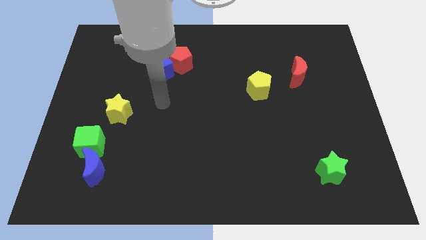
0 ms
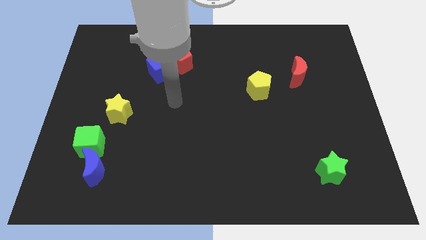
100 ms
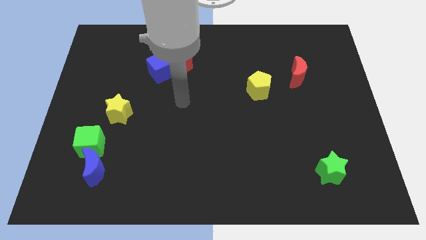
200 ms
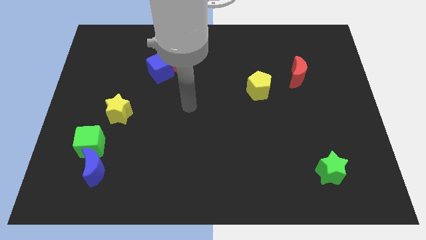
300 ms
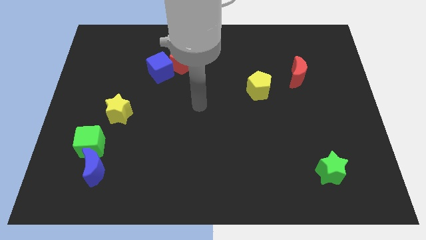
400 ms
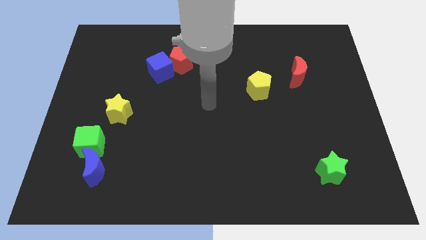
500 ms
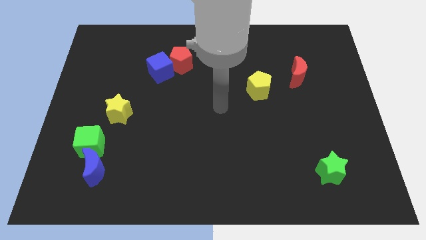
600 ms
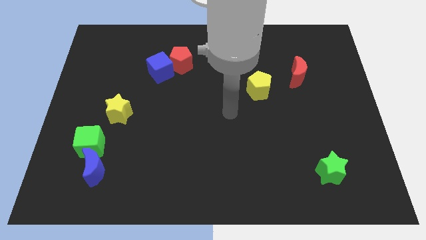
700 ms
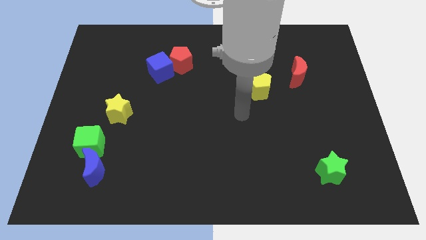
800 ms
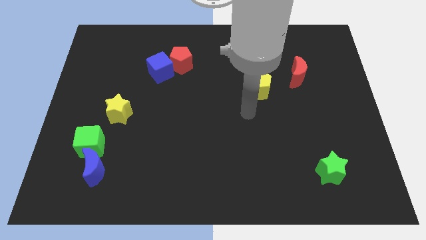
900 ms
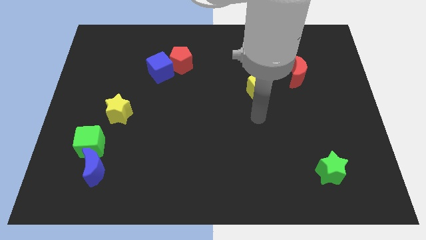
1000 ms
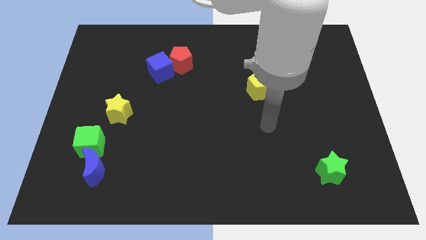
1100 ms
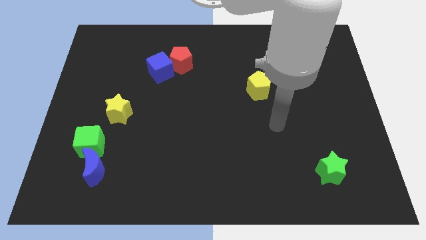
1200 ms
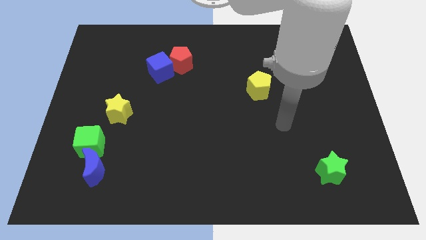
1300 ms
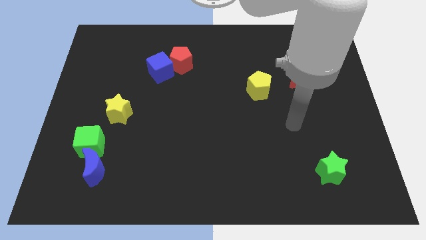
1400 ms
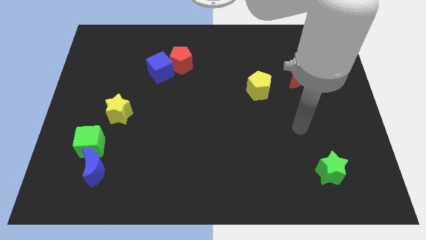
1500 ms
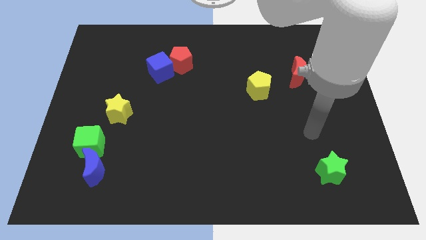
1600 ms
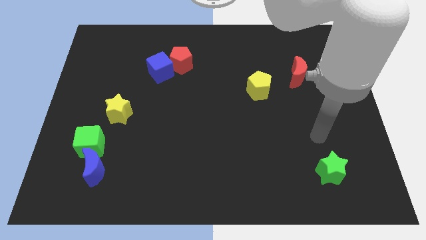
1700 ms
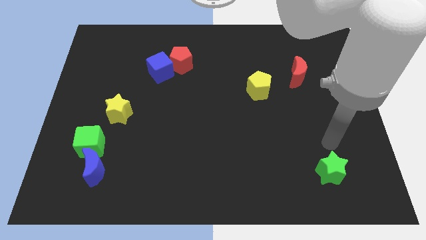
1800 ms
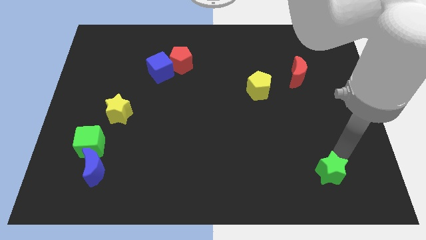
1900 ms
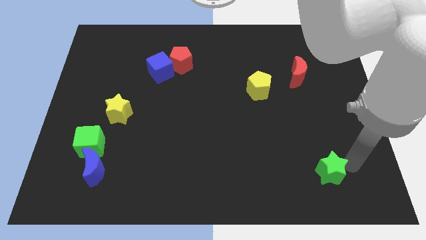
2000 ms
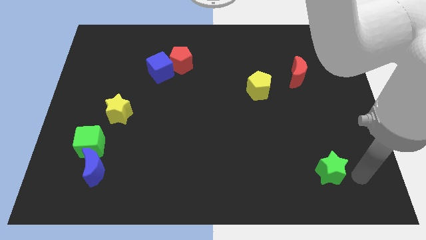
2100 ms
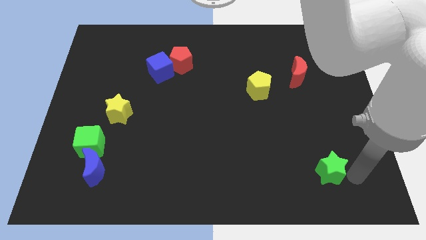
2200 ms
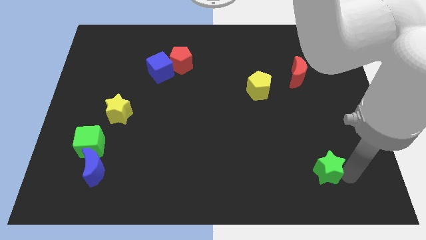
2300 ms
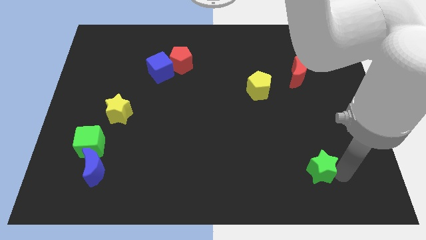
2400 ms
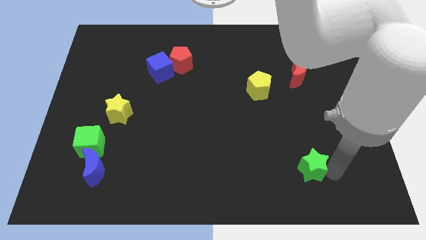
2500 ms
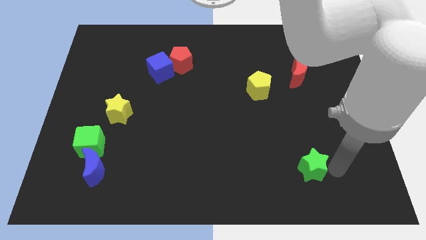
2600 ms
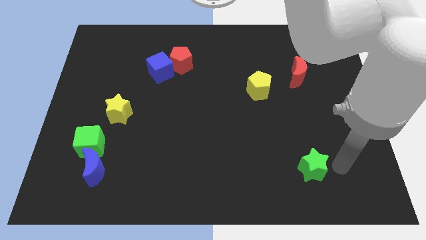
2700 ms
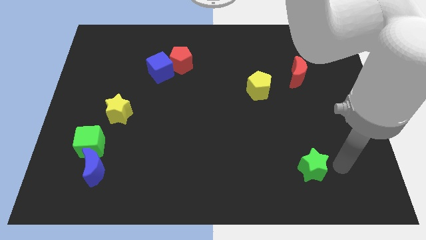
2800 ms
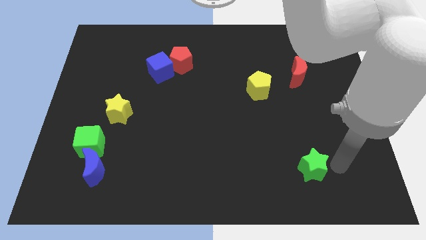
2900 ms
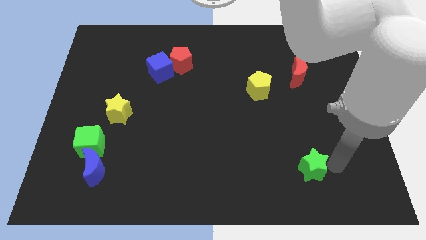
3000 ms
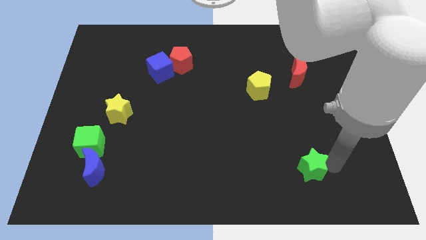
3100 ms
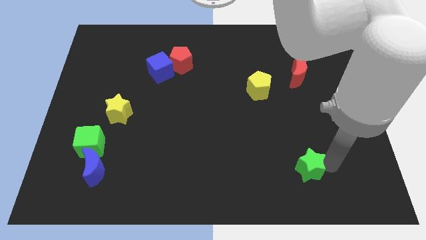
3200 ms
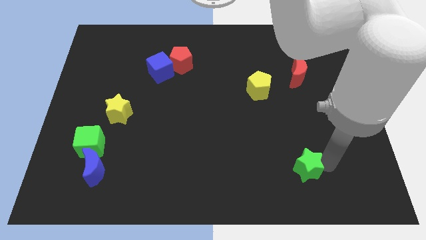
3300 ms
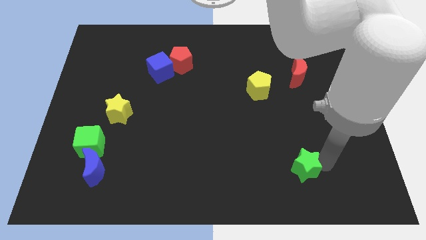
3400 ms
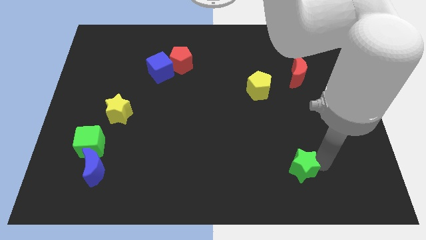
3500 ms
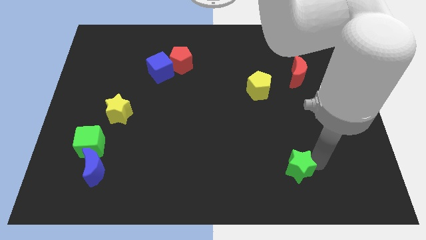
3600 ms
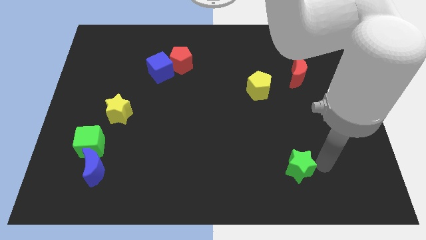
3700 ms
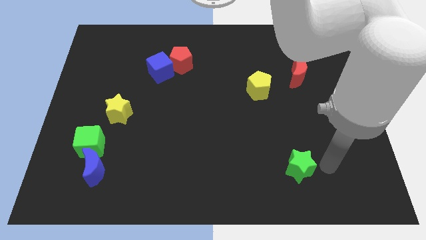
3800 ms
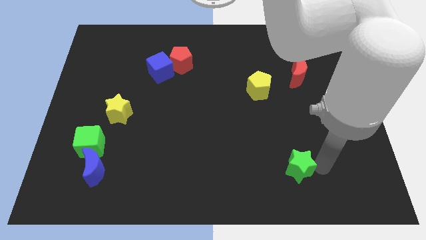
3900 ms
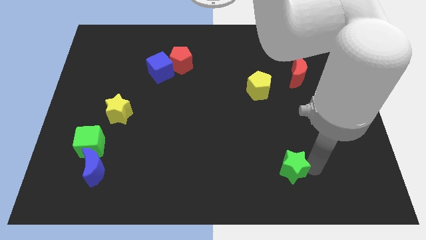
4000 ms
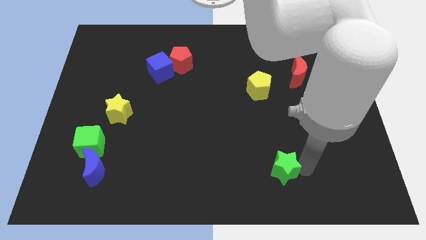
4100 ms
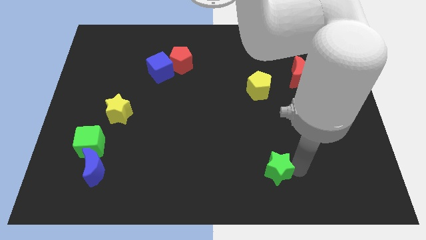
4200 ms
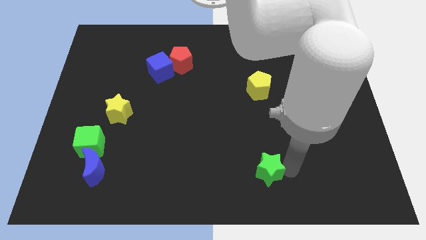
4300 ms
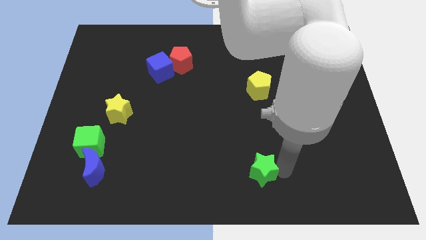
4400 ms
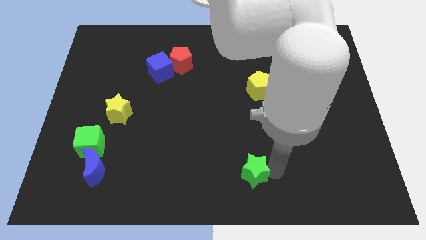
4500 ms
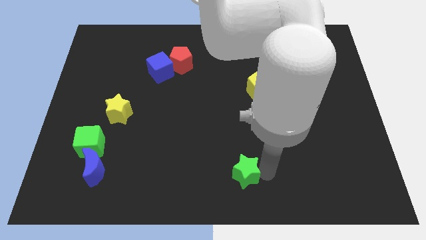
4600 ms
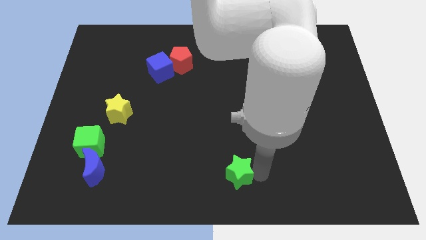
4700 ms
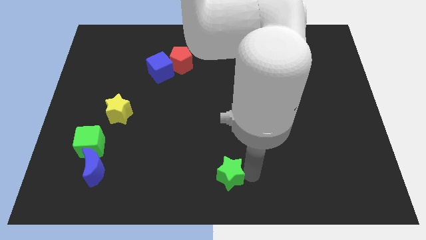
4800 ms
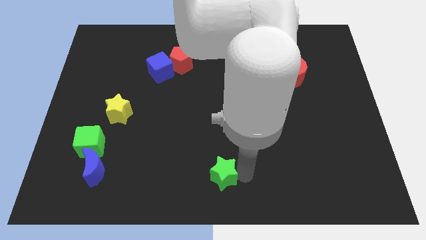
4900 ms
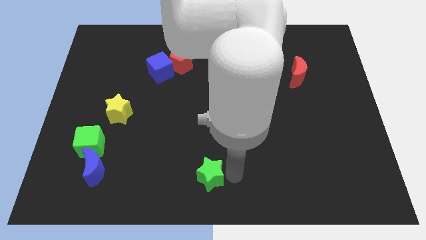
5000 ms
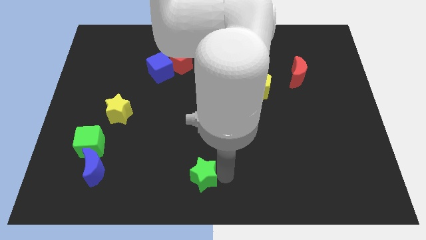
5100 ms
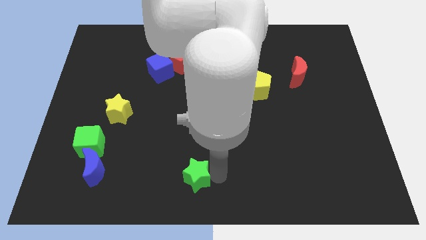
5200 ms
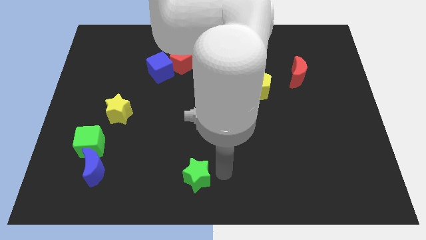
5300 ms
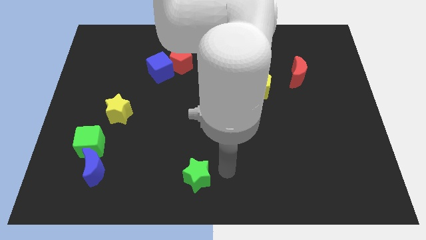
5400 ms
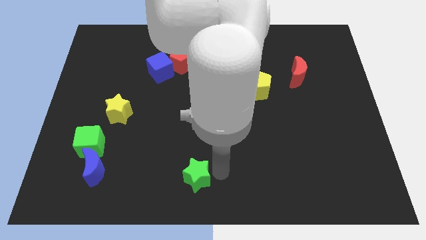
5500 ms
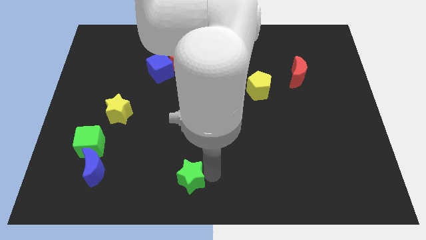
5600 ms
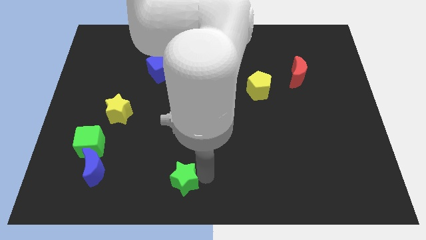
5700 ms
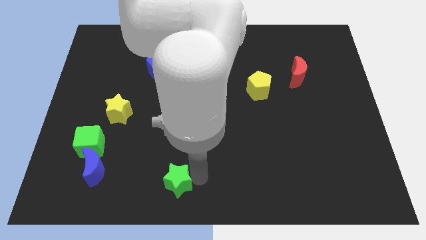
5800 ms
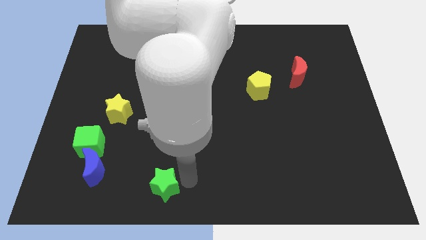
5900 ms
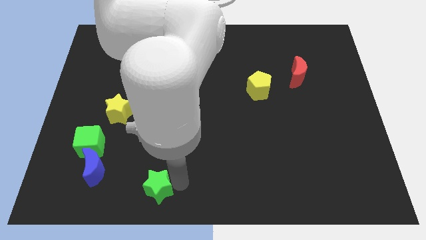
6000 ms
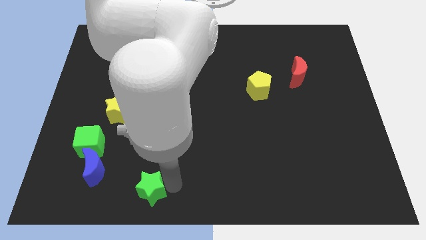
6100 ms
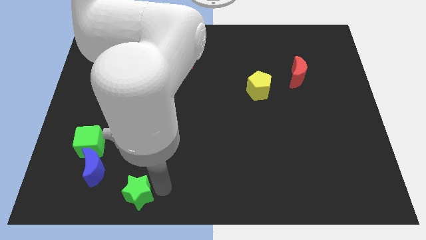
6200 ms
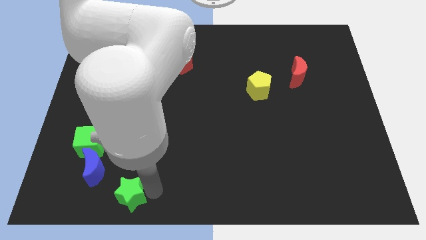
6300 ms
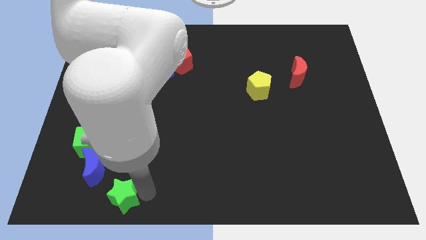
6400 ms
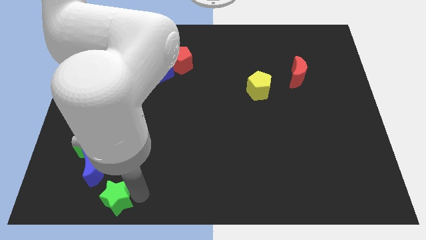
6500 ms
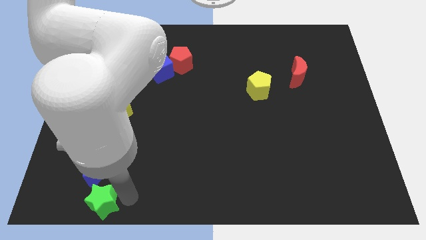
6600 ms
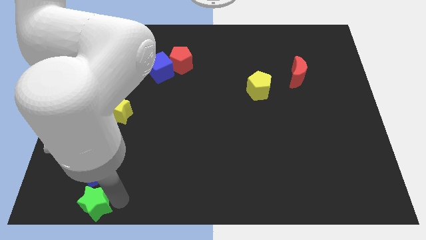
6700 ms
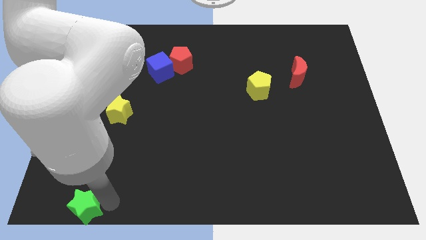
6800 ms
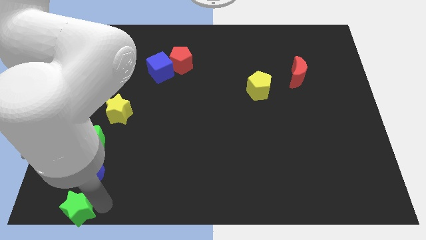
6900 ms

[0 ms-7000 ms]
push the green star to the bottom left of the board
